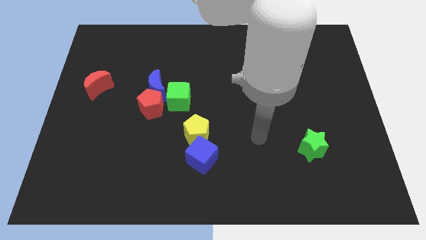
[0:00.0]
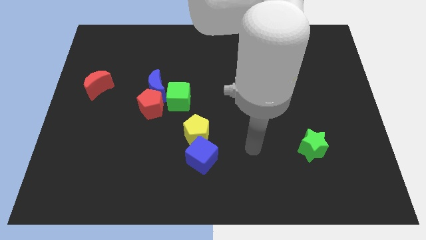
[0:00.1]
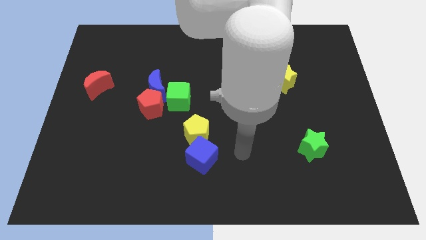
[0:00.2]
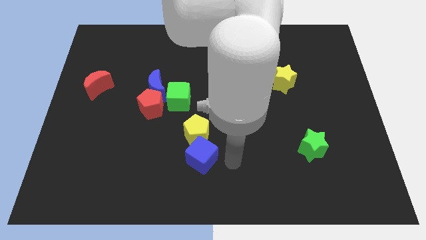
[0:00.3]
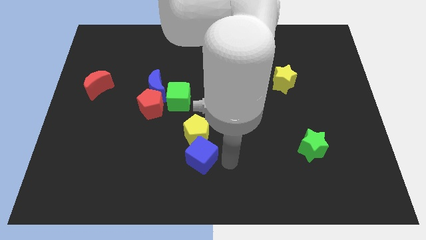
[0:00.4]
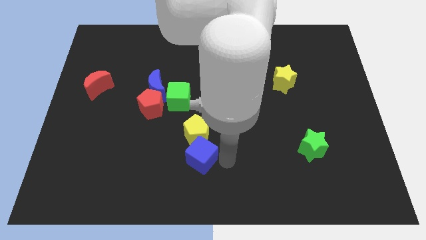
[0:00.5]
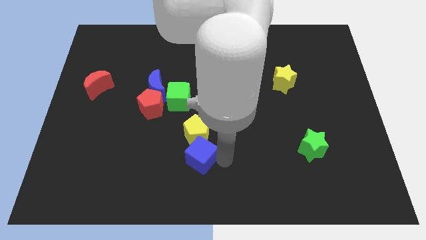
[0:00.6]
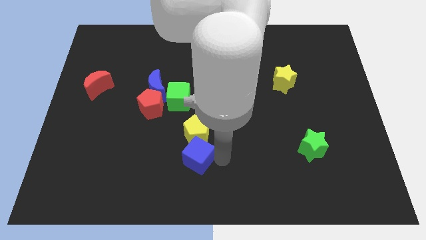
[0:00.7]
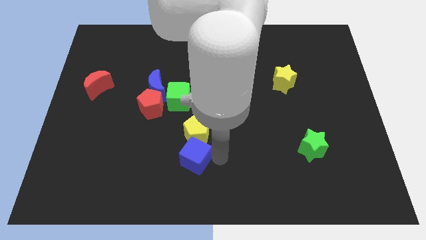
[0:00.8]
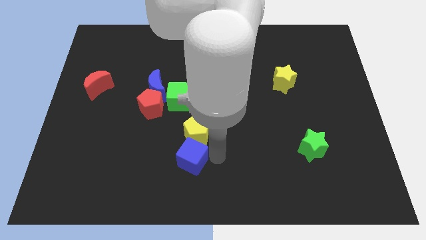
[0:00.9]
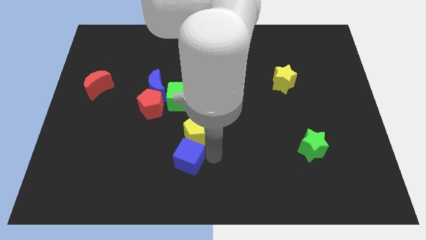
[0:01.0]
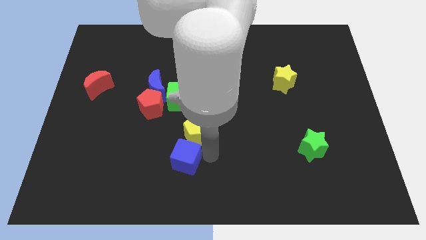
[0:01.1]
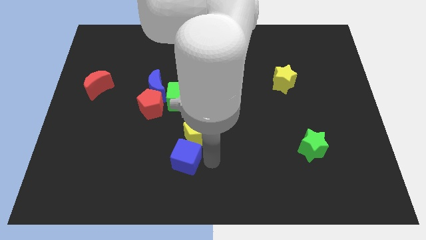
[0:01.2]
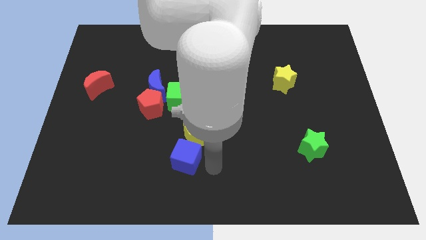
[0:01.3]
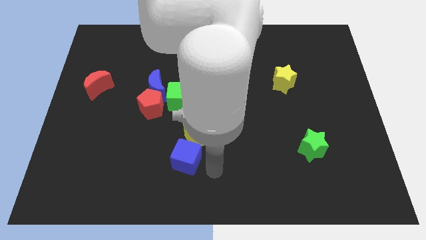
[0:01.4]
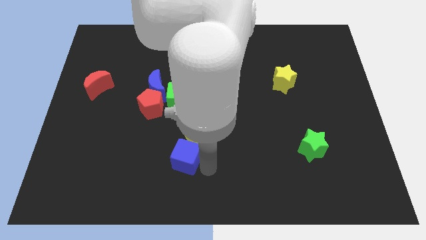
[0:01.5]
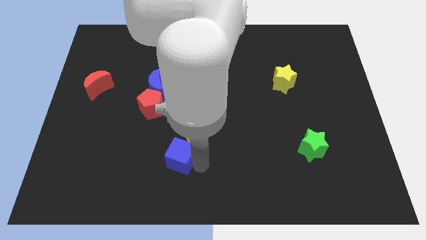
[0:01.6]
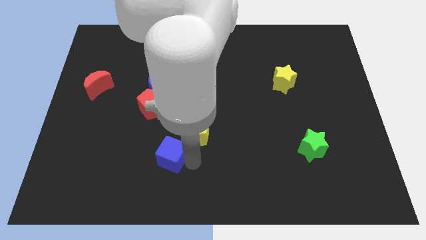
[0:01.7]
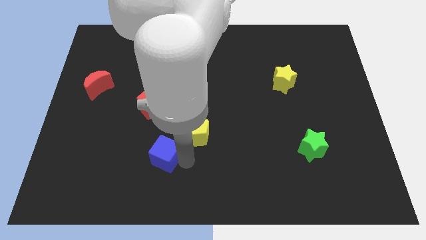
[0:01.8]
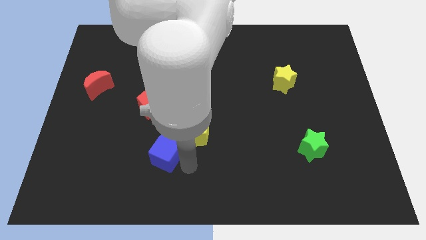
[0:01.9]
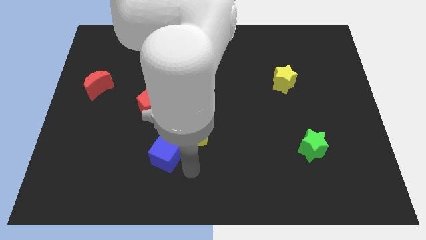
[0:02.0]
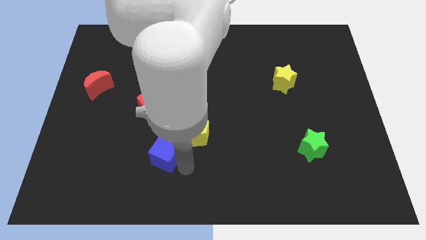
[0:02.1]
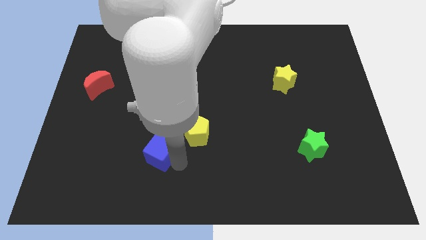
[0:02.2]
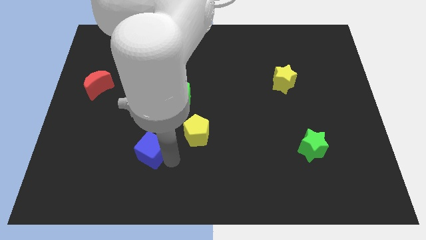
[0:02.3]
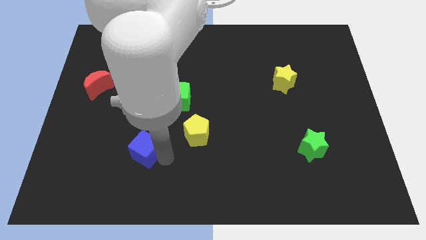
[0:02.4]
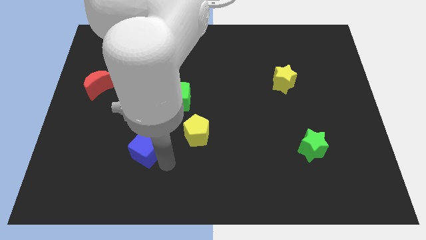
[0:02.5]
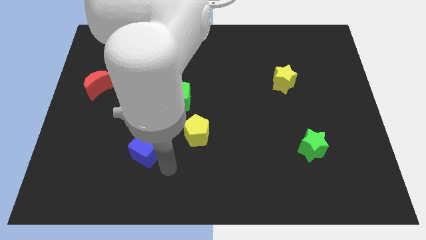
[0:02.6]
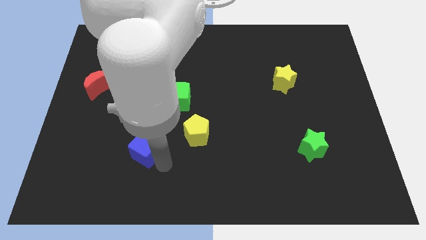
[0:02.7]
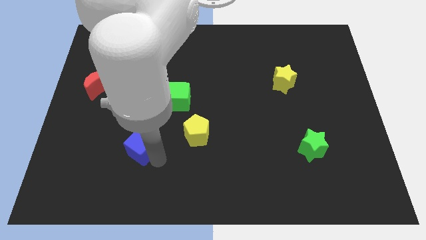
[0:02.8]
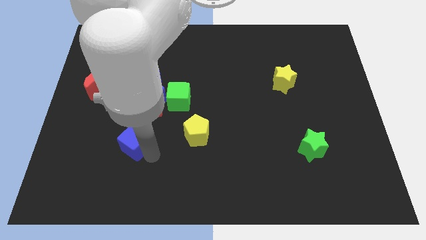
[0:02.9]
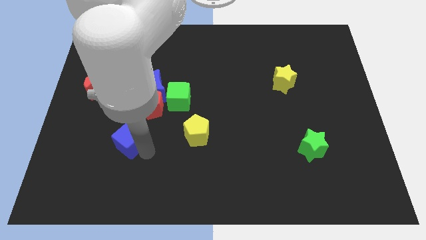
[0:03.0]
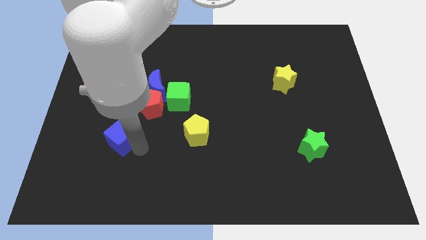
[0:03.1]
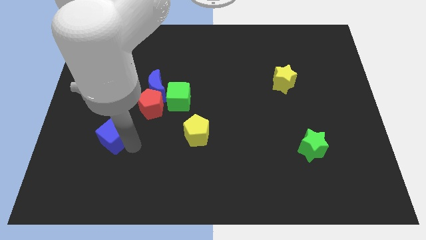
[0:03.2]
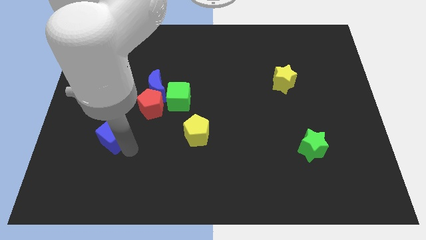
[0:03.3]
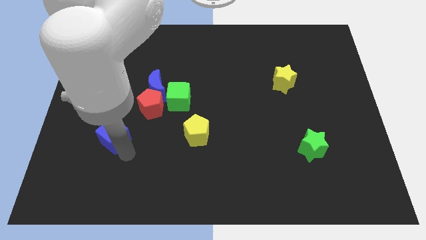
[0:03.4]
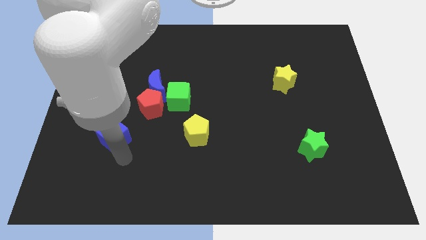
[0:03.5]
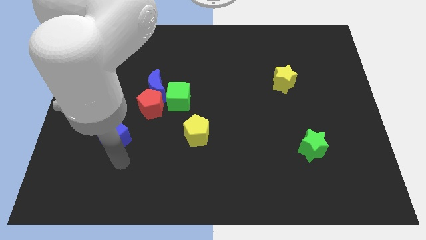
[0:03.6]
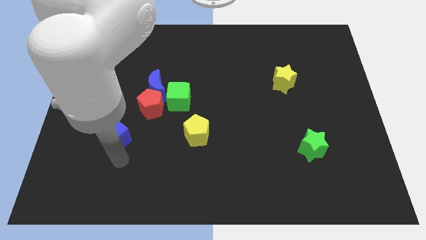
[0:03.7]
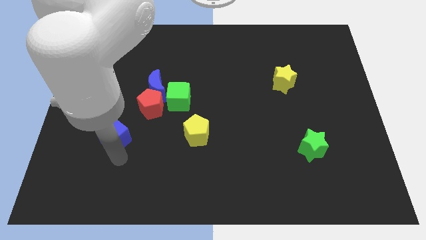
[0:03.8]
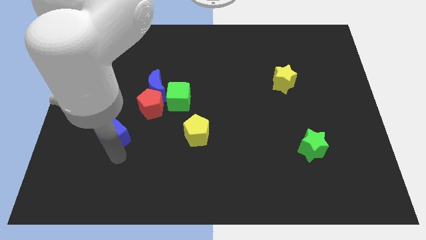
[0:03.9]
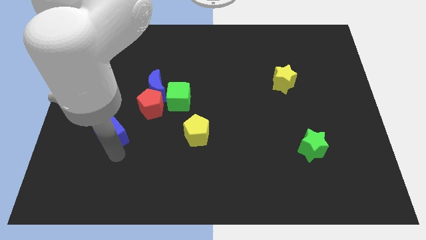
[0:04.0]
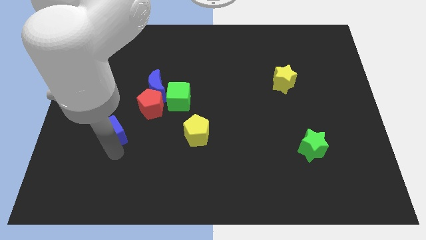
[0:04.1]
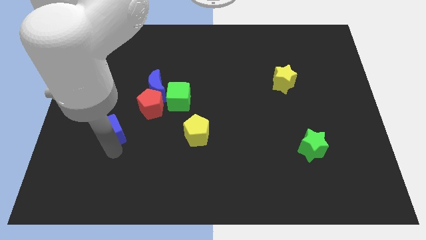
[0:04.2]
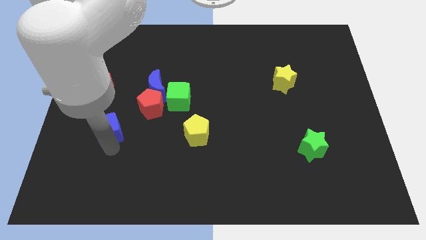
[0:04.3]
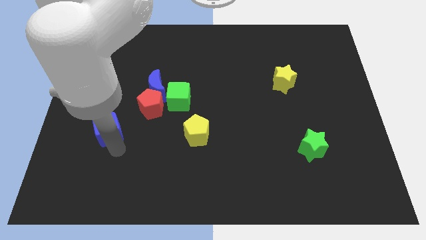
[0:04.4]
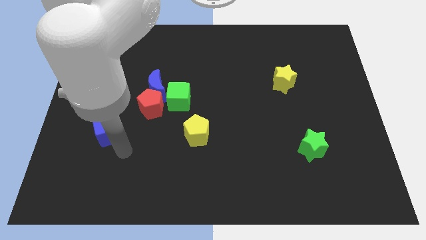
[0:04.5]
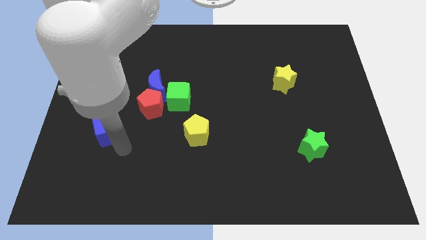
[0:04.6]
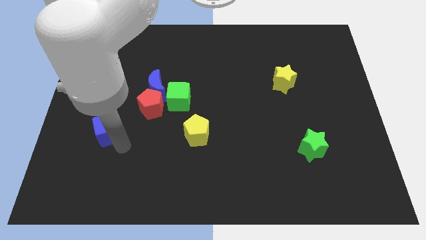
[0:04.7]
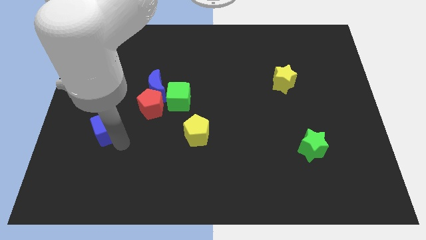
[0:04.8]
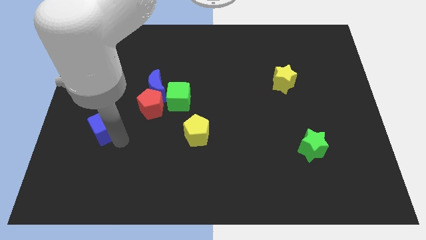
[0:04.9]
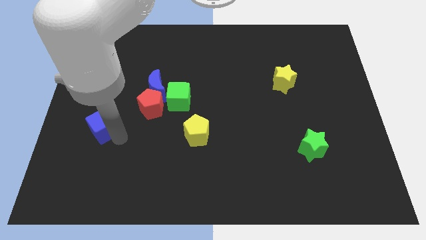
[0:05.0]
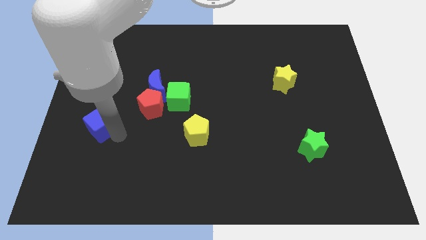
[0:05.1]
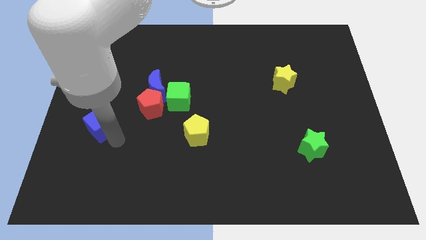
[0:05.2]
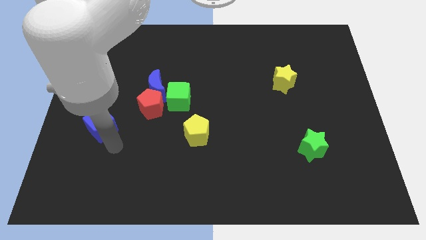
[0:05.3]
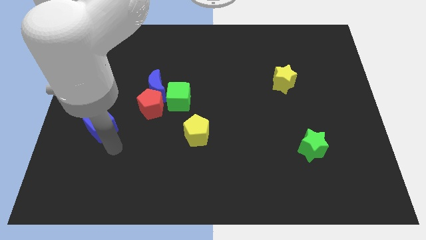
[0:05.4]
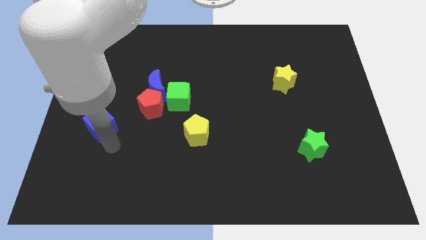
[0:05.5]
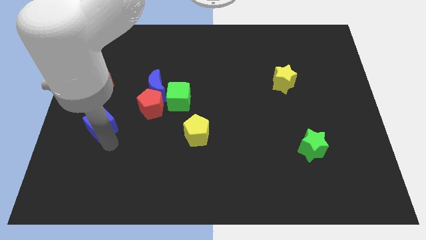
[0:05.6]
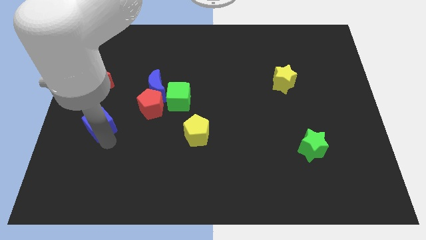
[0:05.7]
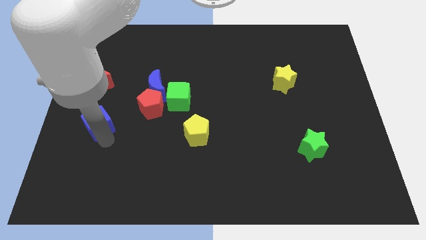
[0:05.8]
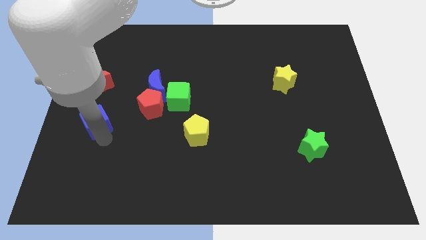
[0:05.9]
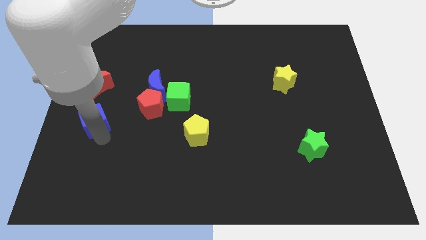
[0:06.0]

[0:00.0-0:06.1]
put the blue cube to the center left
